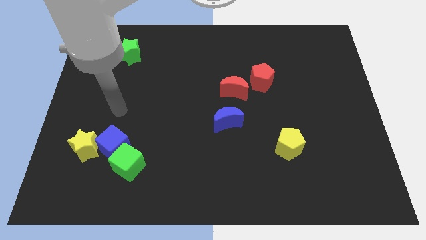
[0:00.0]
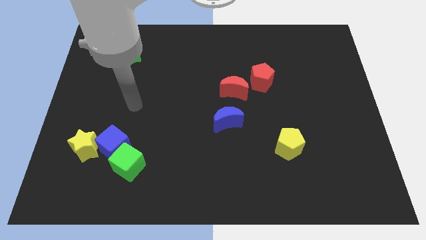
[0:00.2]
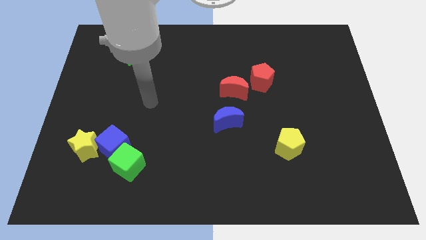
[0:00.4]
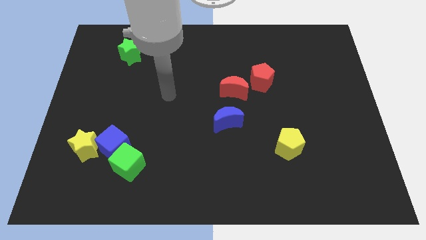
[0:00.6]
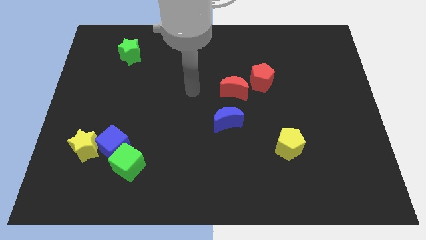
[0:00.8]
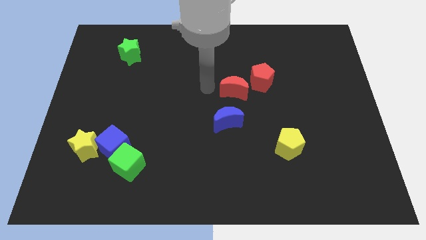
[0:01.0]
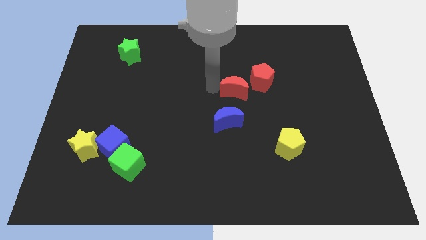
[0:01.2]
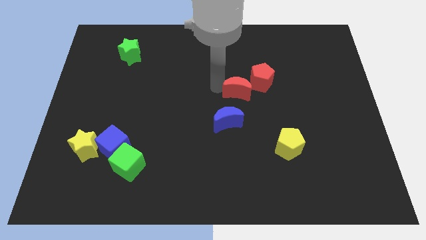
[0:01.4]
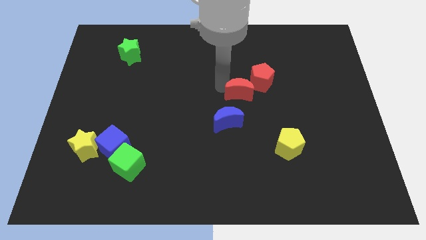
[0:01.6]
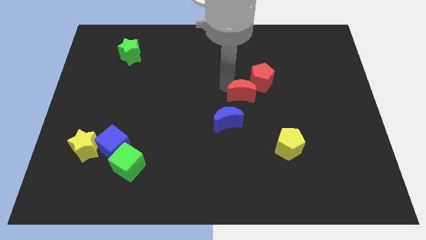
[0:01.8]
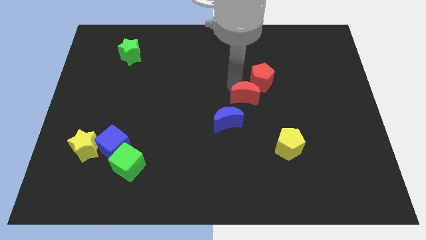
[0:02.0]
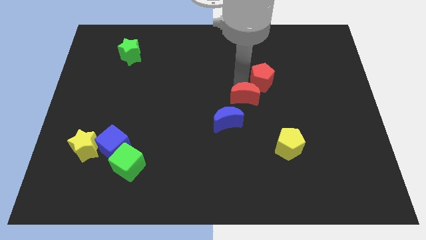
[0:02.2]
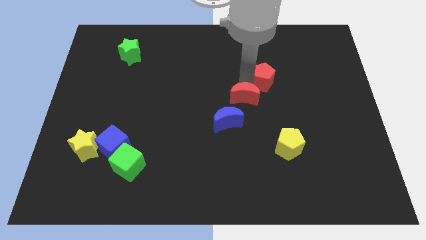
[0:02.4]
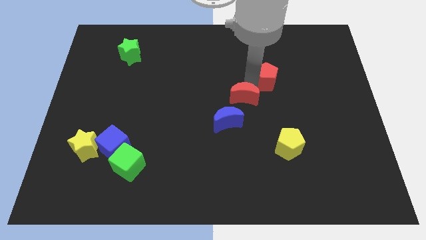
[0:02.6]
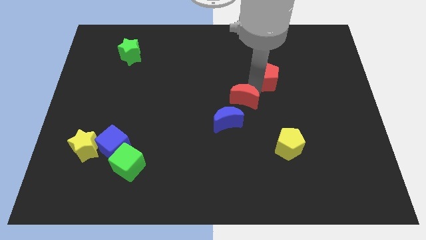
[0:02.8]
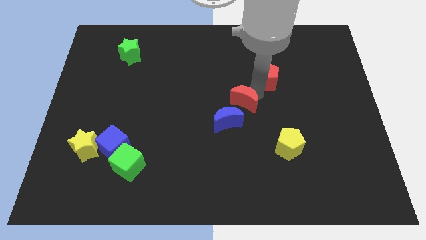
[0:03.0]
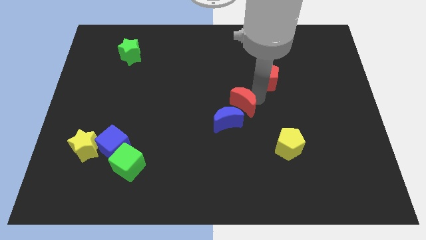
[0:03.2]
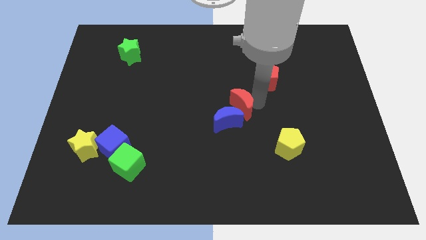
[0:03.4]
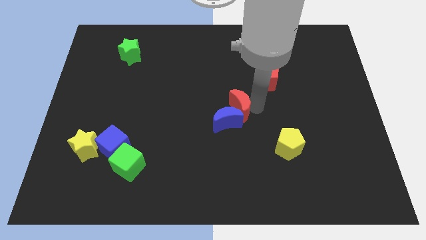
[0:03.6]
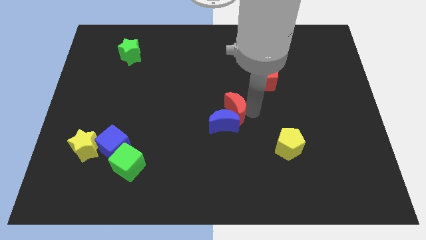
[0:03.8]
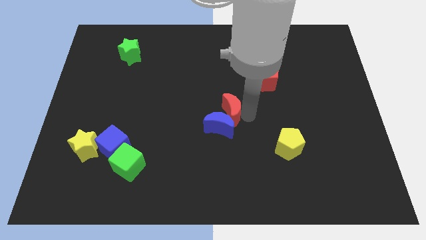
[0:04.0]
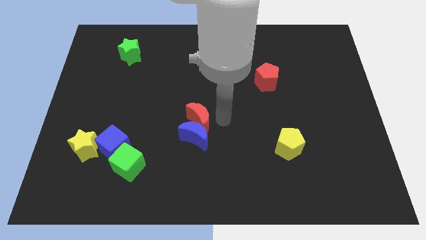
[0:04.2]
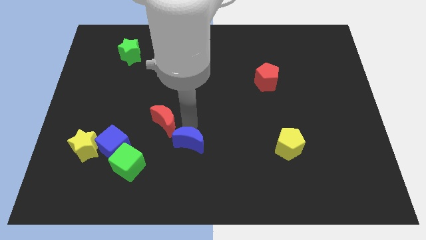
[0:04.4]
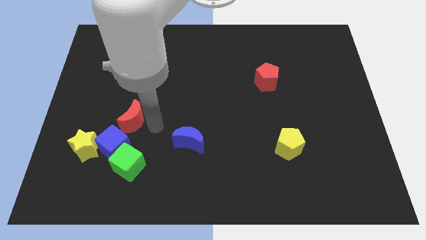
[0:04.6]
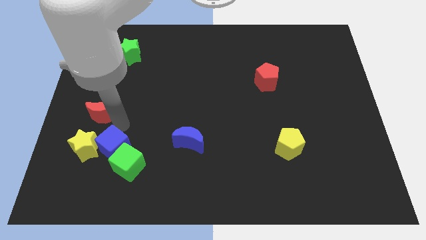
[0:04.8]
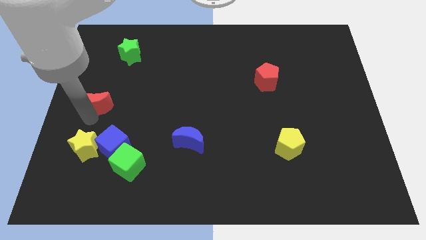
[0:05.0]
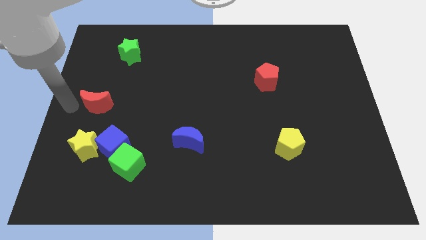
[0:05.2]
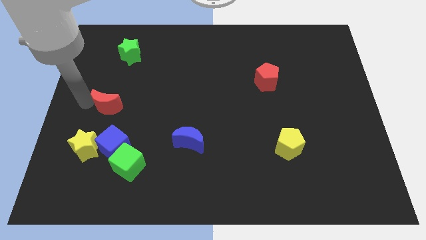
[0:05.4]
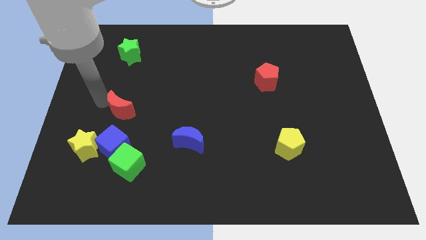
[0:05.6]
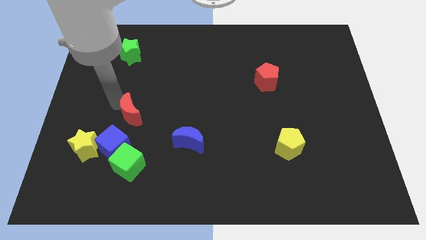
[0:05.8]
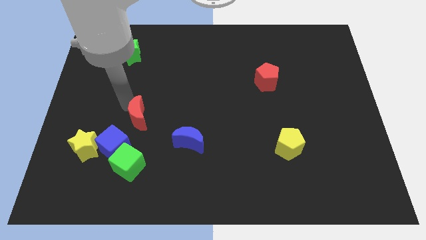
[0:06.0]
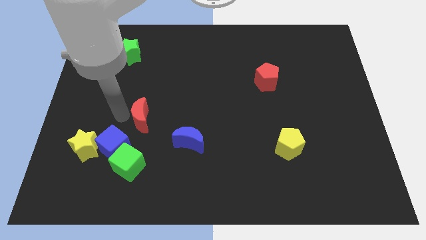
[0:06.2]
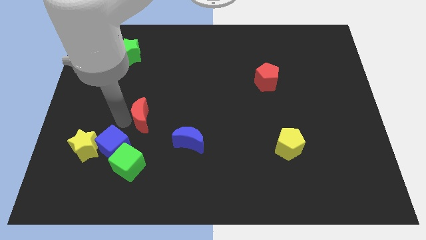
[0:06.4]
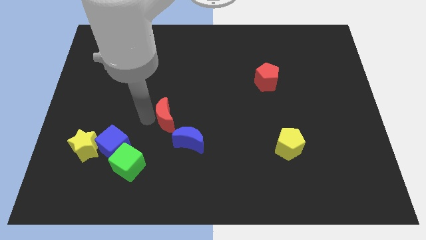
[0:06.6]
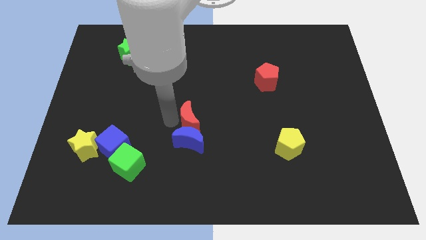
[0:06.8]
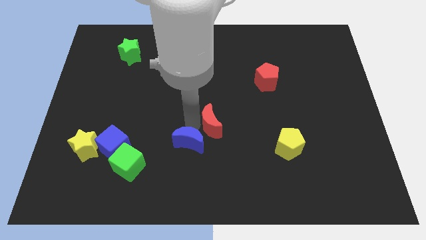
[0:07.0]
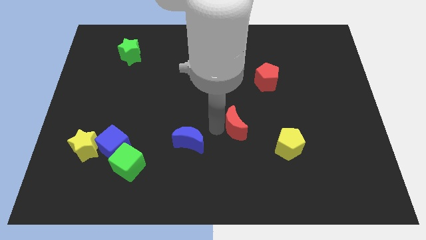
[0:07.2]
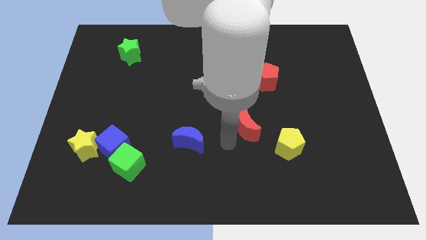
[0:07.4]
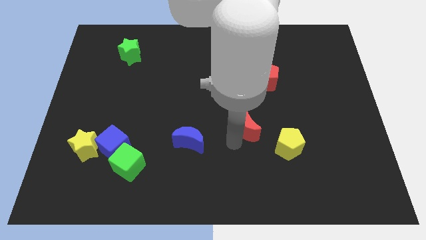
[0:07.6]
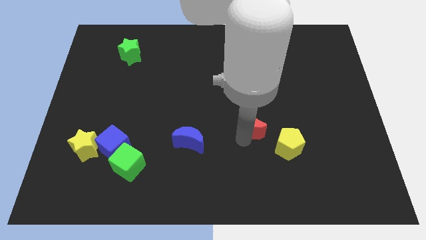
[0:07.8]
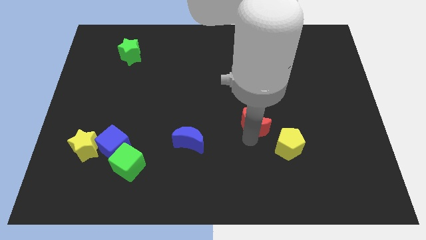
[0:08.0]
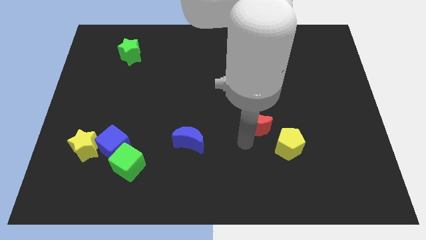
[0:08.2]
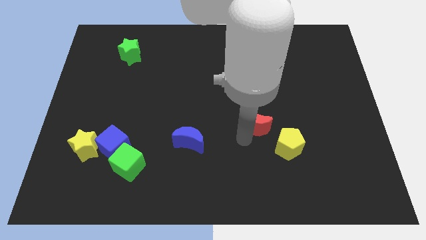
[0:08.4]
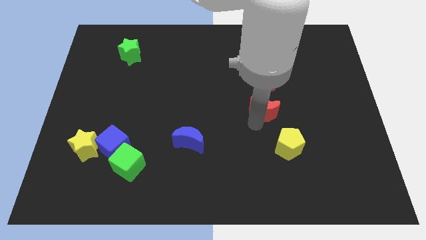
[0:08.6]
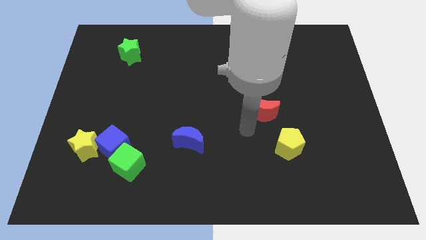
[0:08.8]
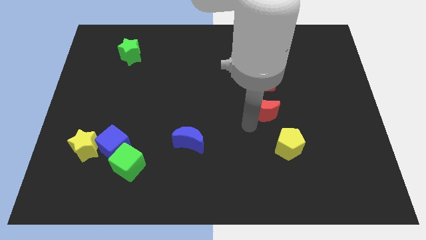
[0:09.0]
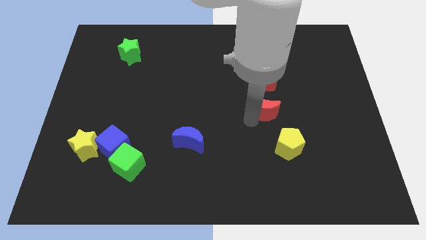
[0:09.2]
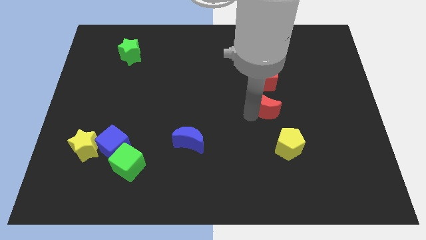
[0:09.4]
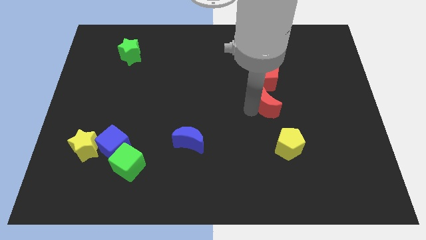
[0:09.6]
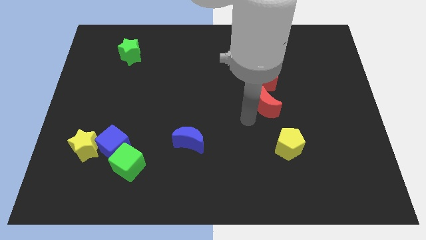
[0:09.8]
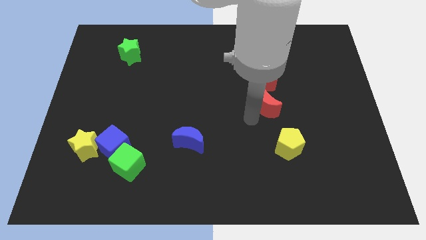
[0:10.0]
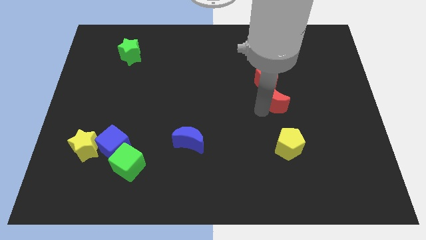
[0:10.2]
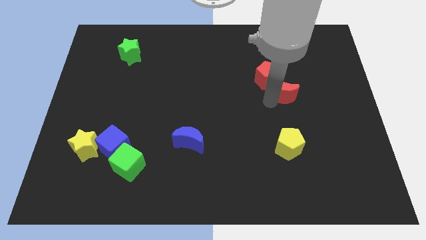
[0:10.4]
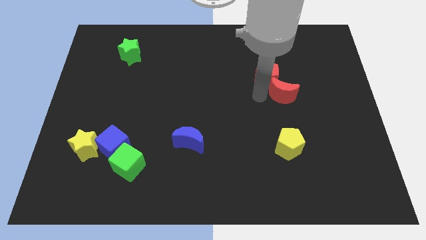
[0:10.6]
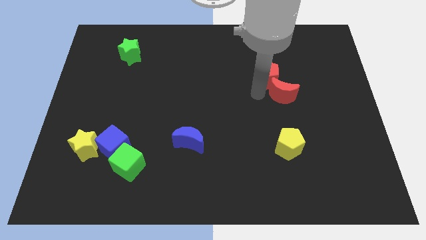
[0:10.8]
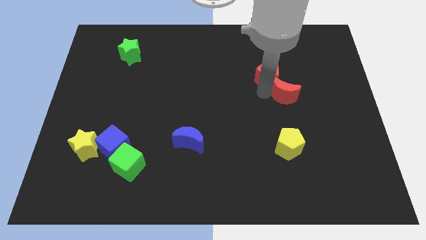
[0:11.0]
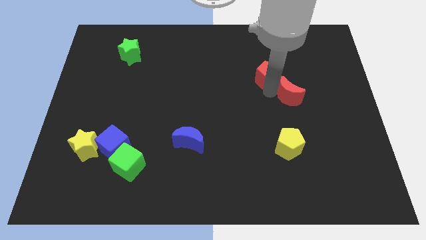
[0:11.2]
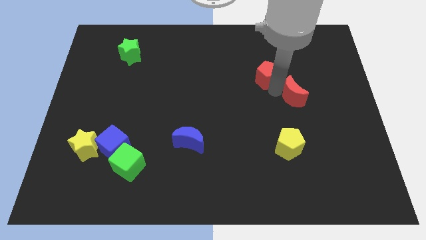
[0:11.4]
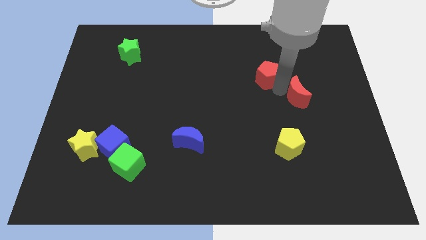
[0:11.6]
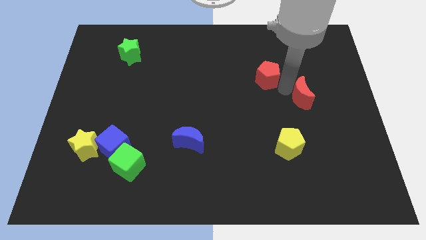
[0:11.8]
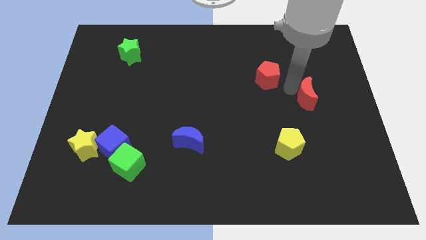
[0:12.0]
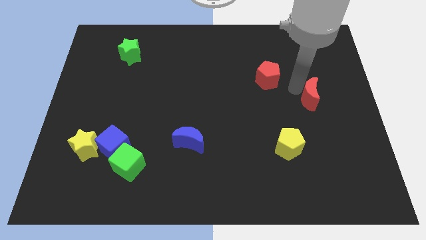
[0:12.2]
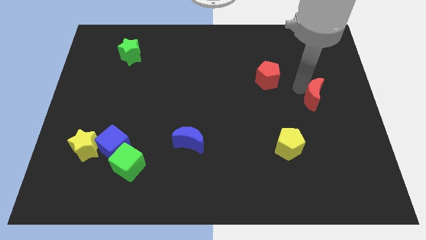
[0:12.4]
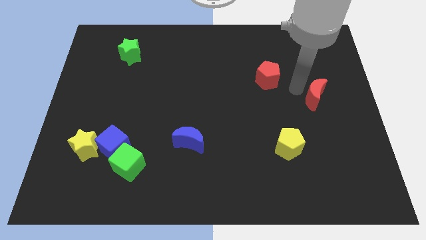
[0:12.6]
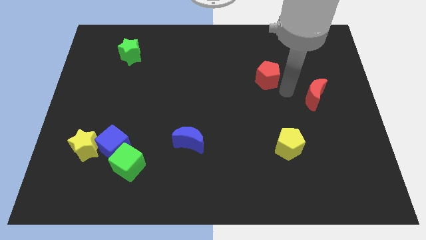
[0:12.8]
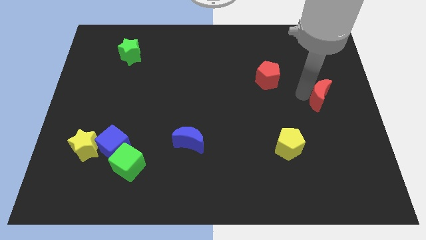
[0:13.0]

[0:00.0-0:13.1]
move the red moon to the right side

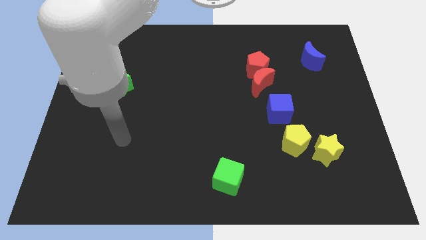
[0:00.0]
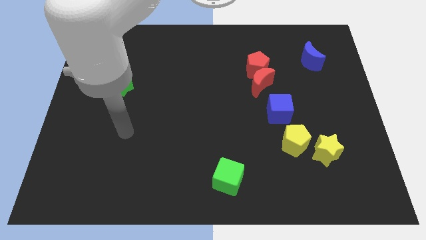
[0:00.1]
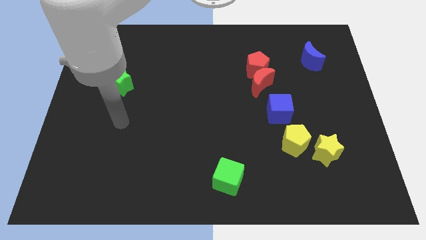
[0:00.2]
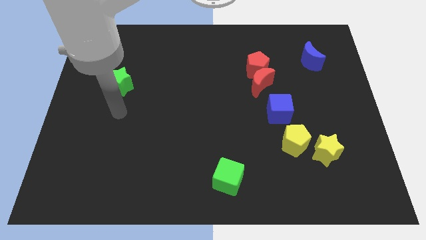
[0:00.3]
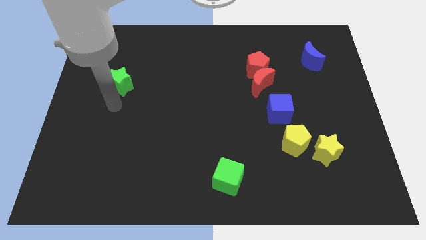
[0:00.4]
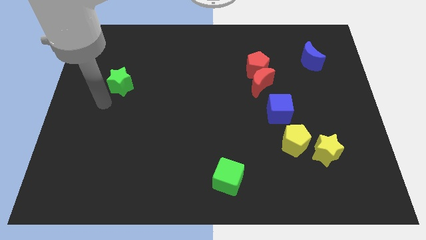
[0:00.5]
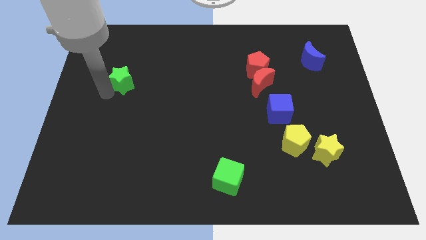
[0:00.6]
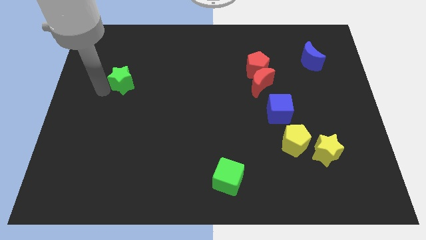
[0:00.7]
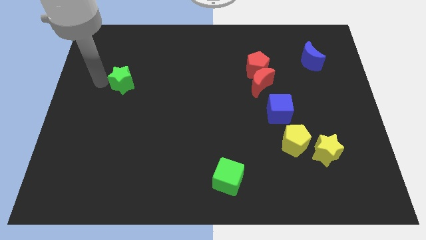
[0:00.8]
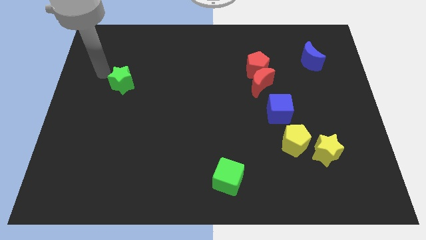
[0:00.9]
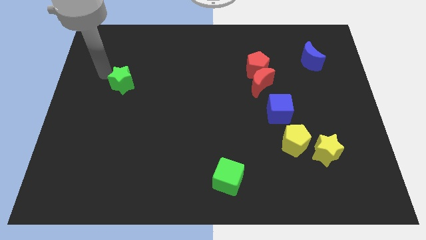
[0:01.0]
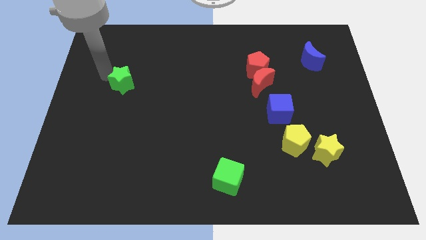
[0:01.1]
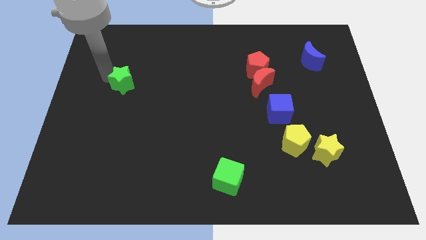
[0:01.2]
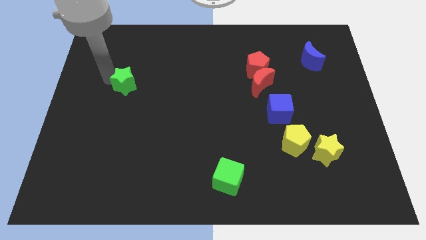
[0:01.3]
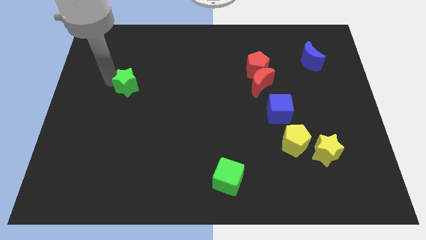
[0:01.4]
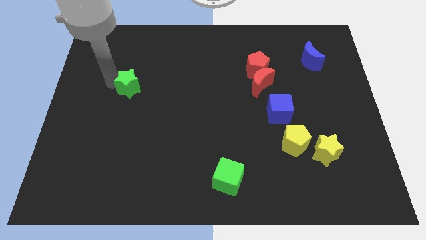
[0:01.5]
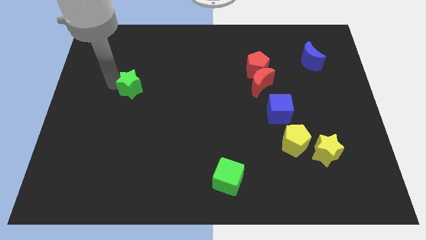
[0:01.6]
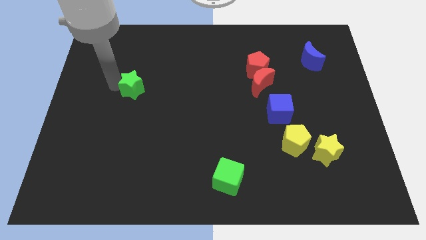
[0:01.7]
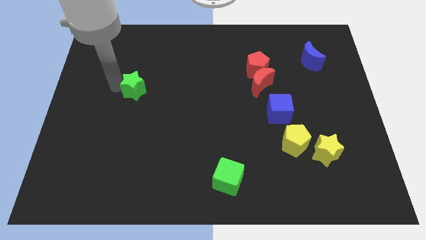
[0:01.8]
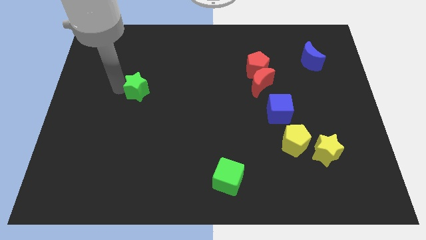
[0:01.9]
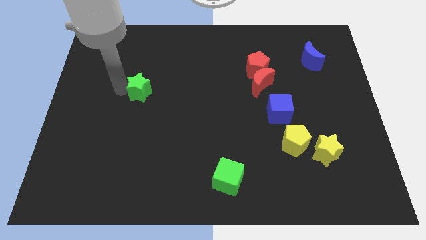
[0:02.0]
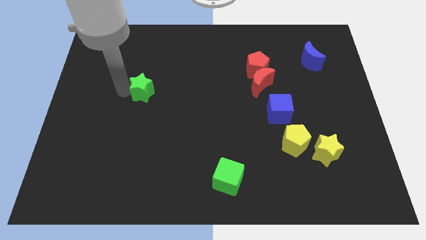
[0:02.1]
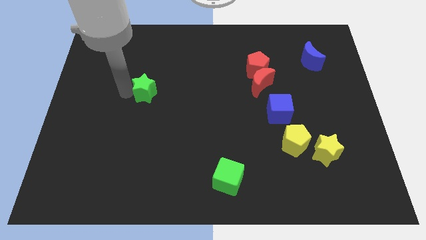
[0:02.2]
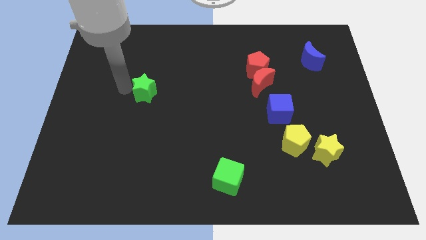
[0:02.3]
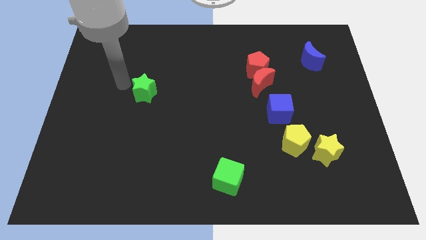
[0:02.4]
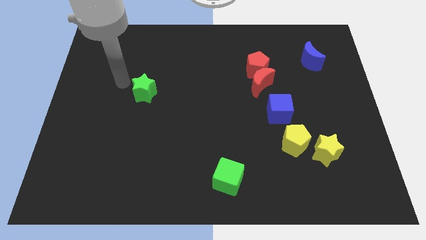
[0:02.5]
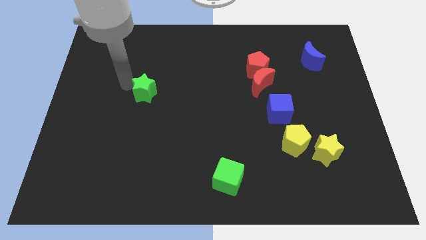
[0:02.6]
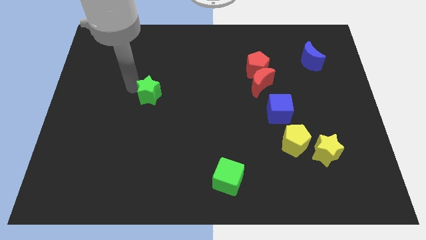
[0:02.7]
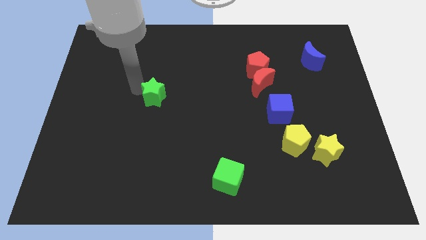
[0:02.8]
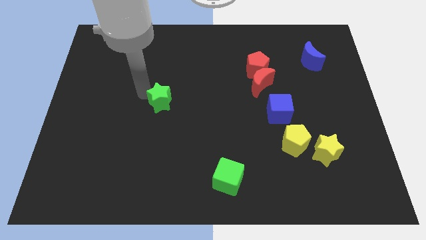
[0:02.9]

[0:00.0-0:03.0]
push the green star to the center
